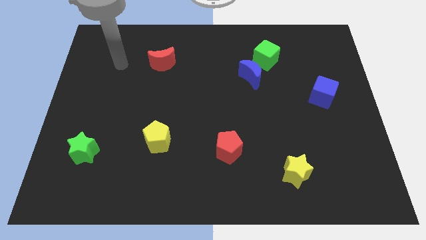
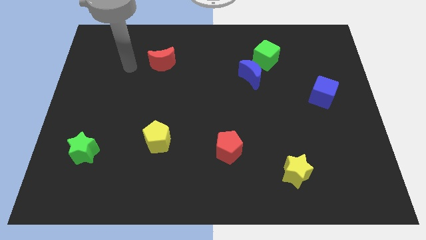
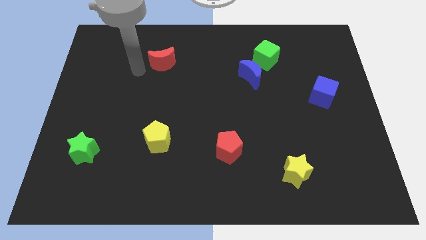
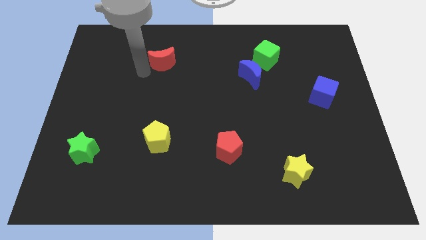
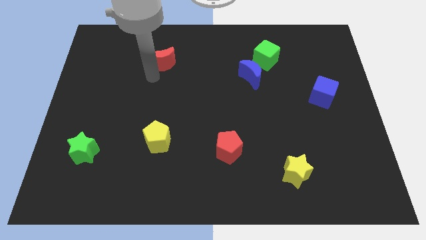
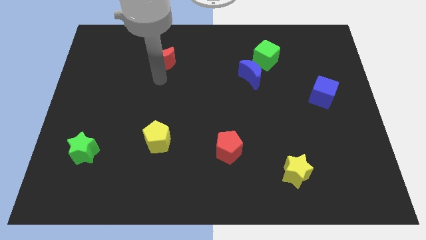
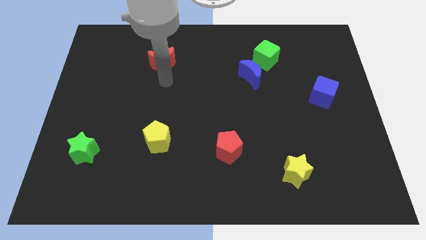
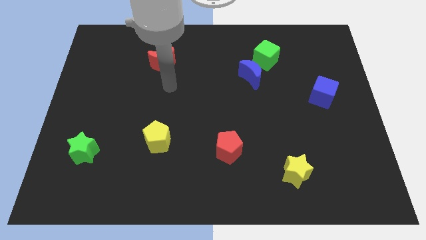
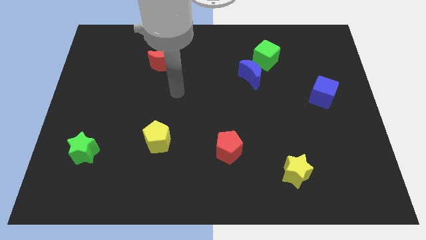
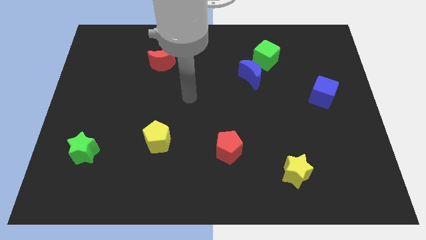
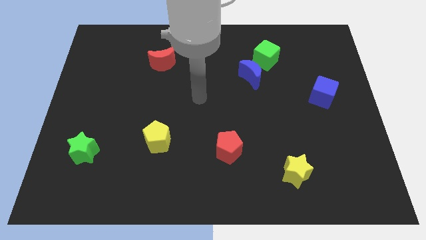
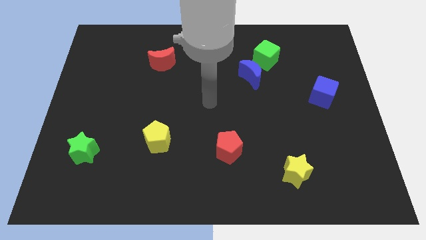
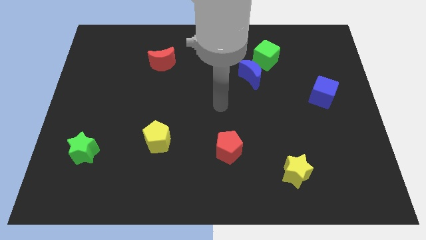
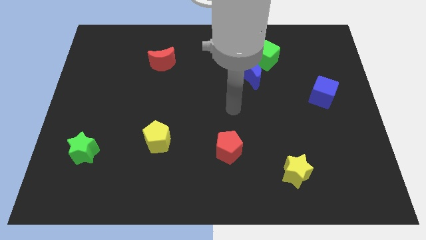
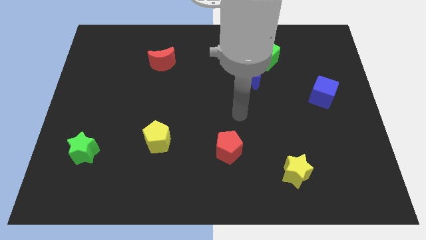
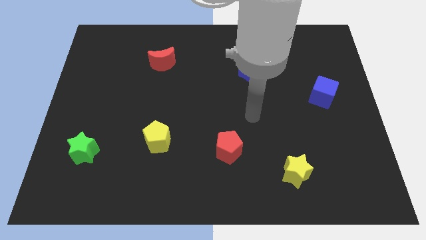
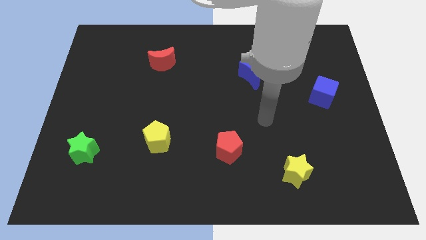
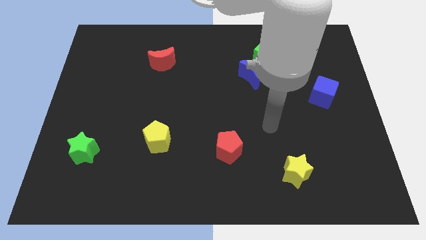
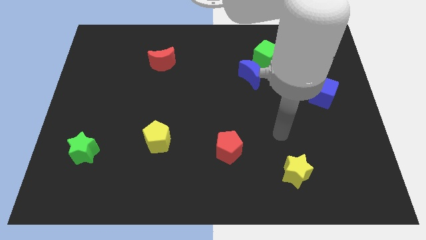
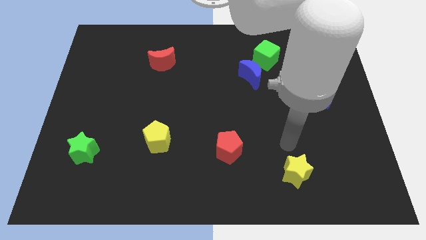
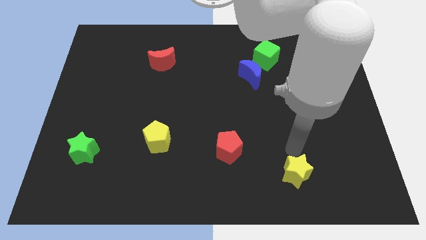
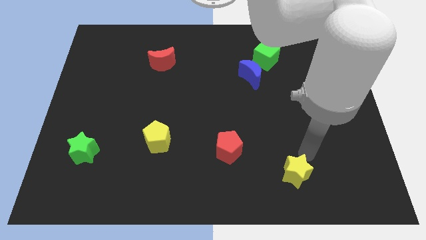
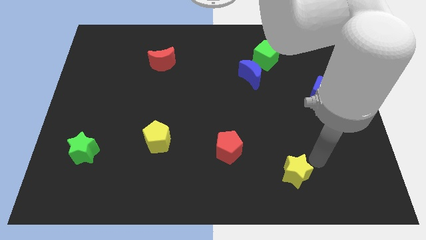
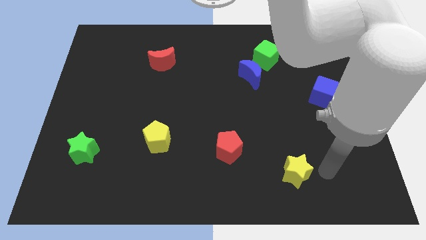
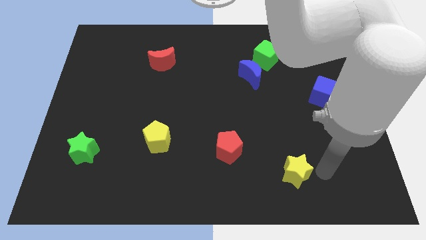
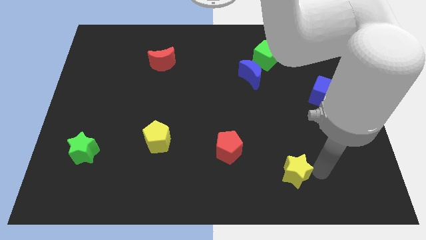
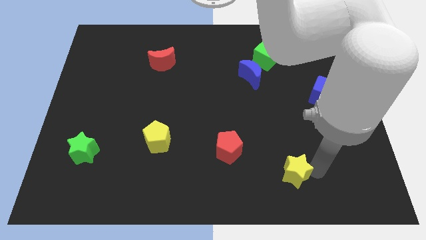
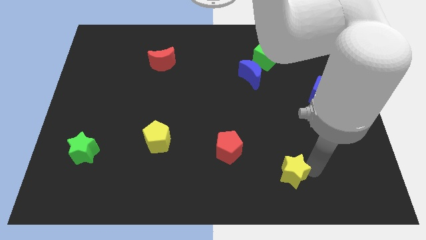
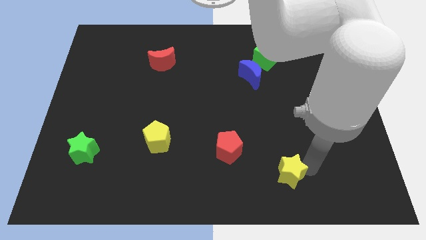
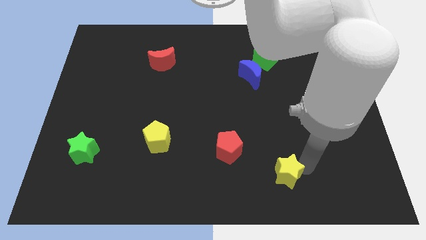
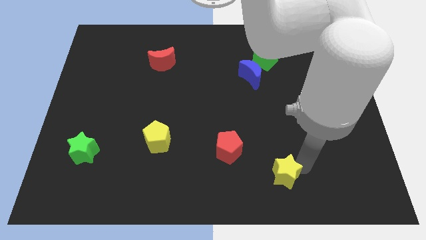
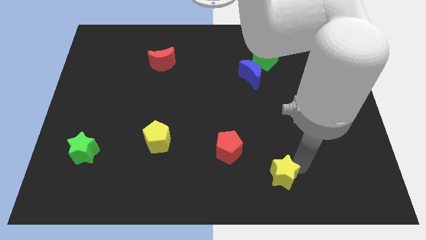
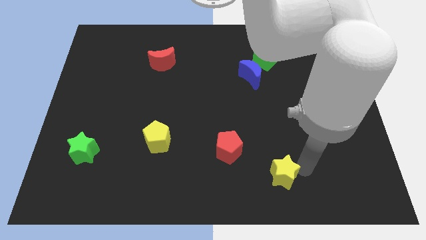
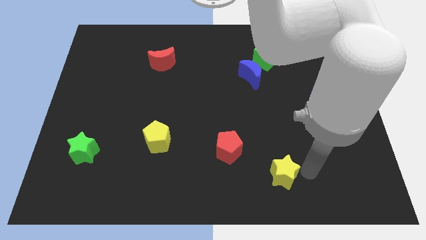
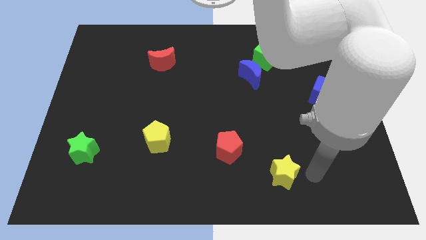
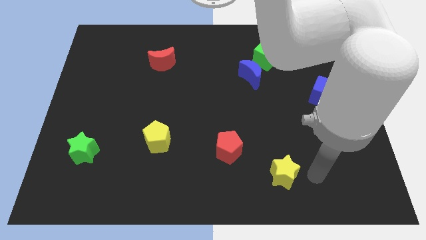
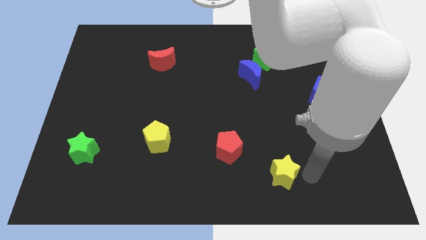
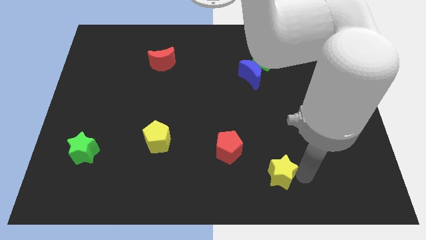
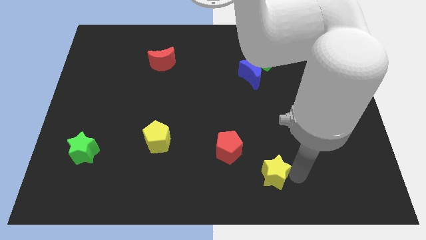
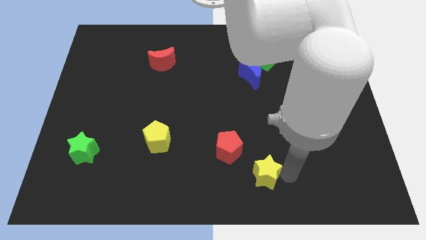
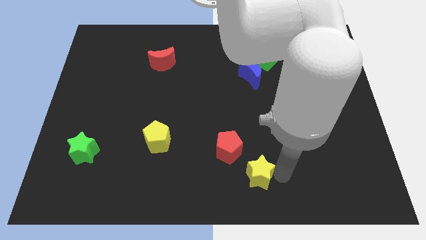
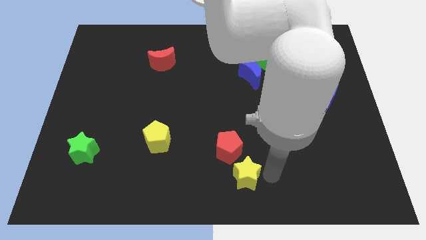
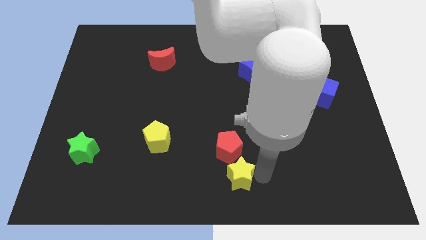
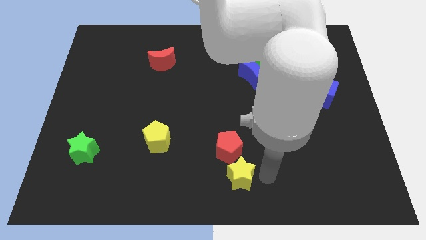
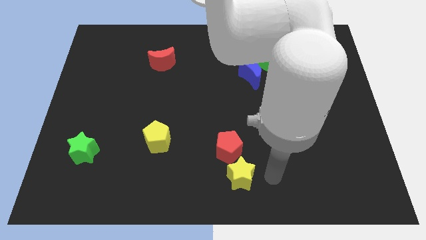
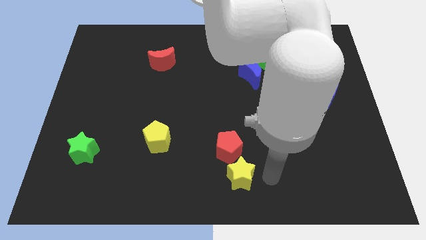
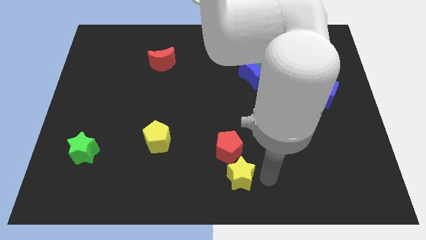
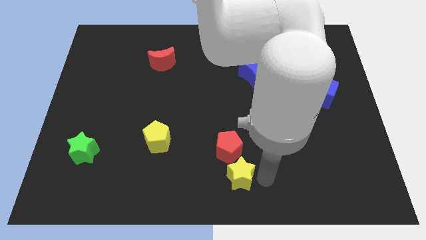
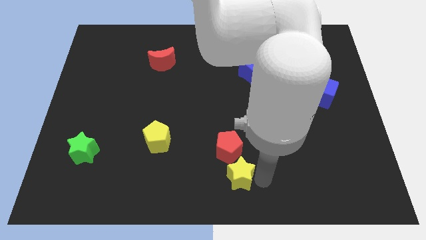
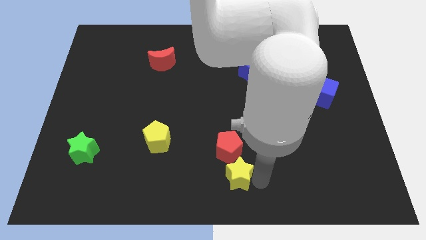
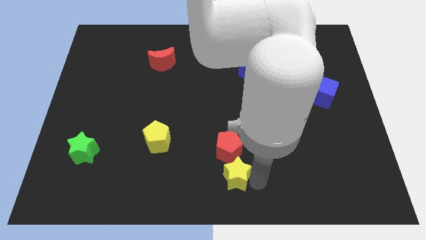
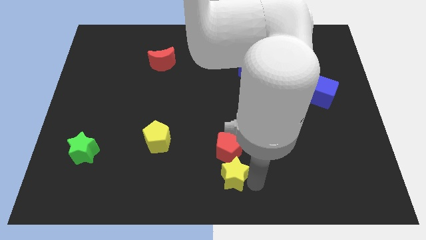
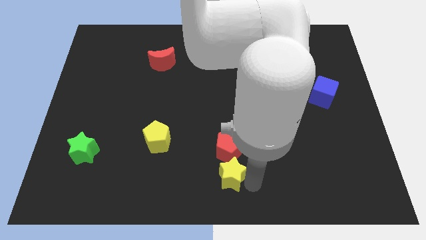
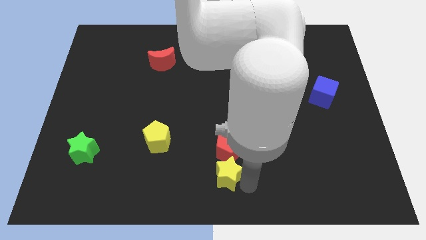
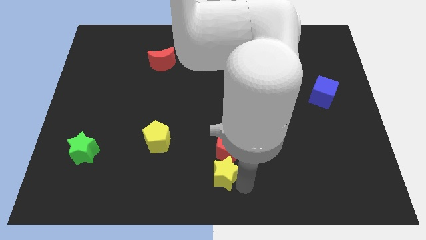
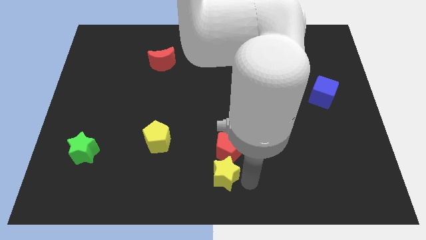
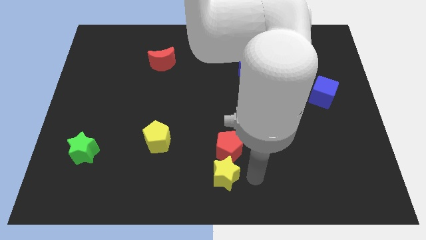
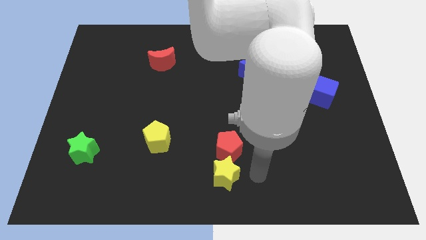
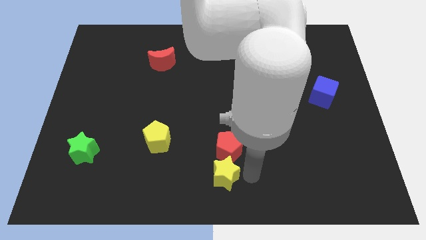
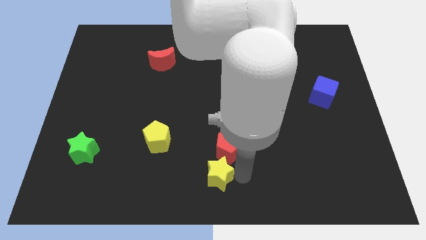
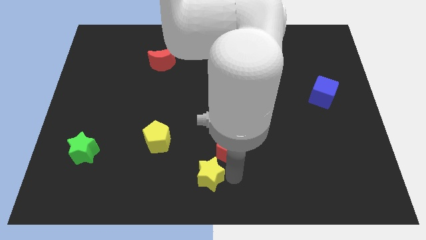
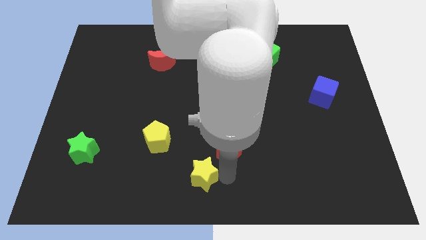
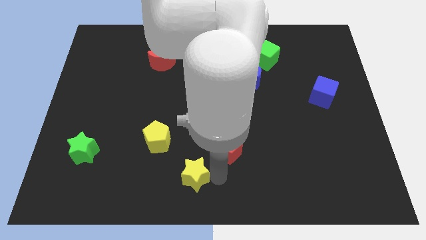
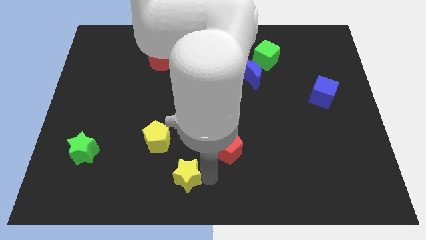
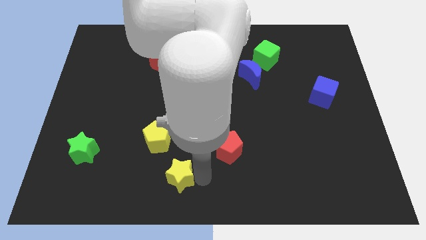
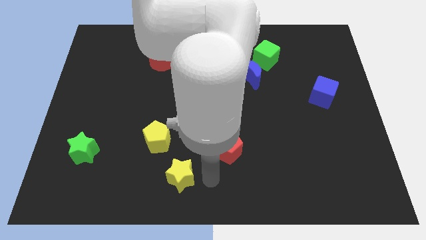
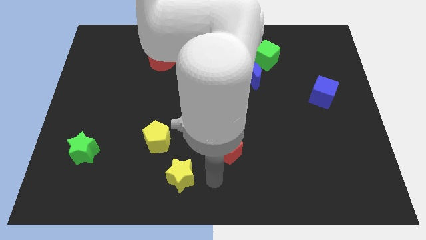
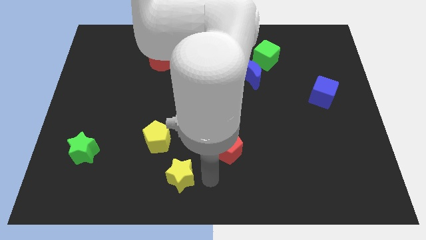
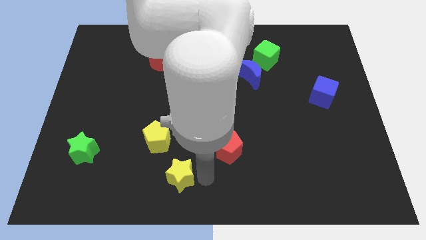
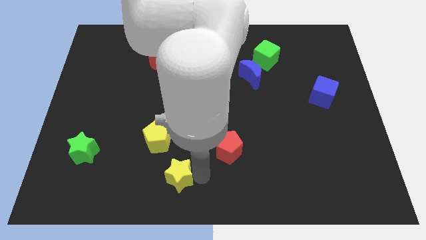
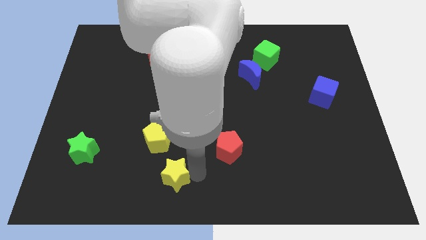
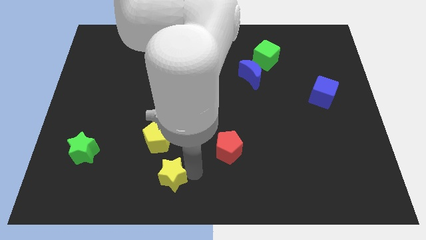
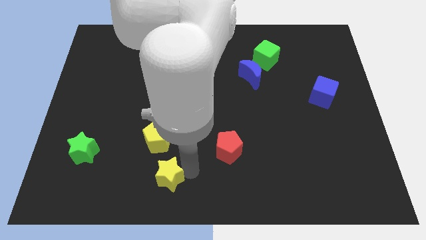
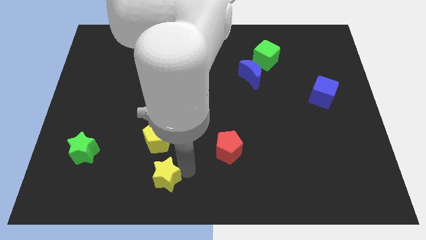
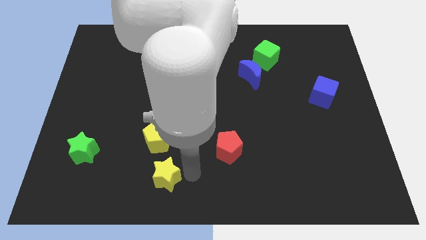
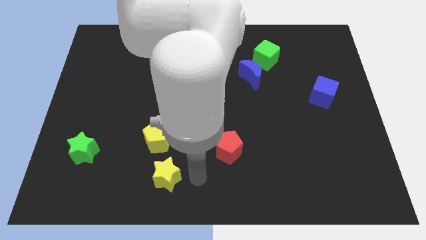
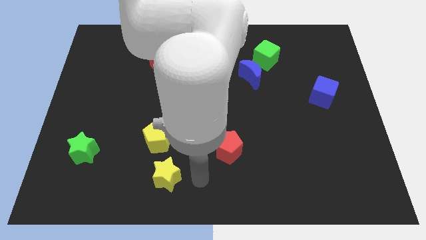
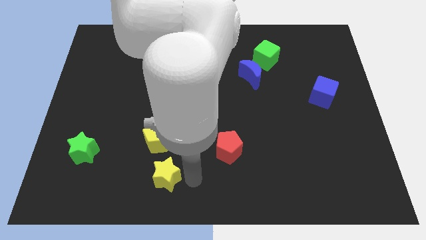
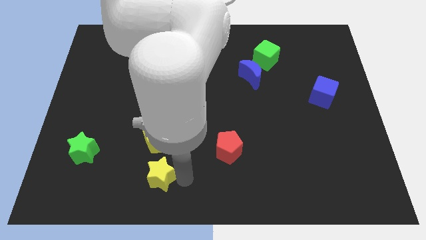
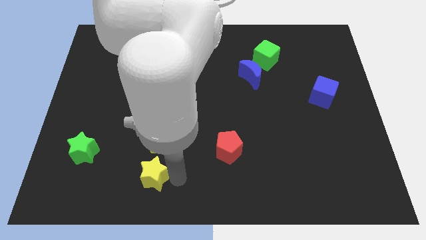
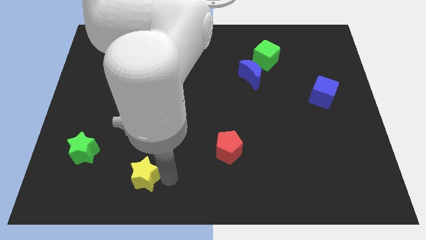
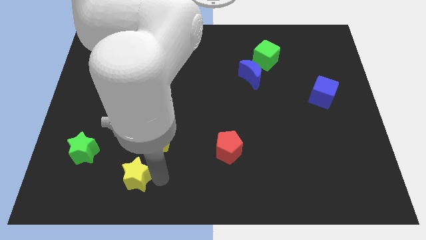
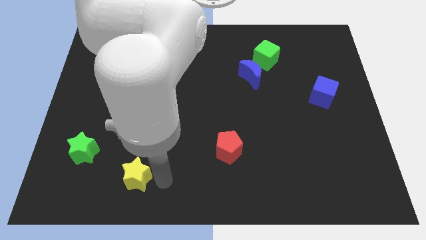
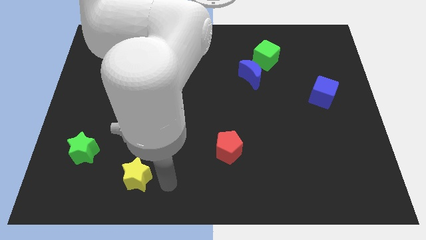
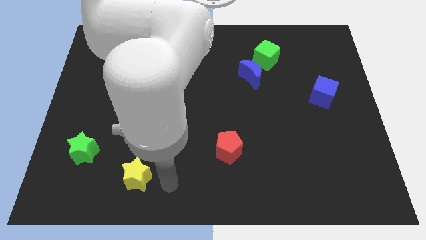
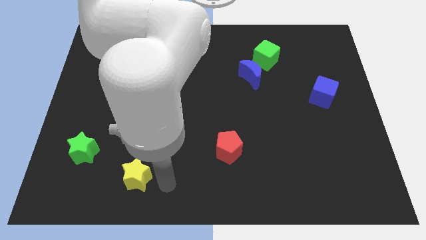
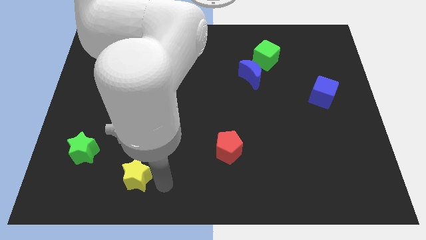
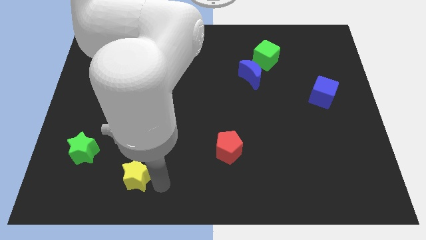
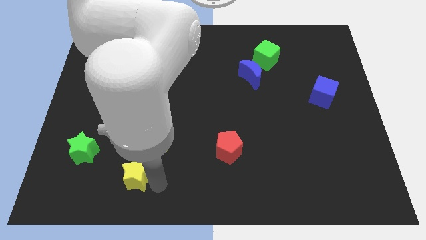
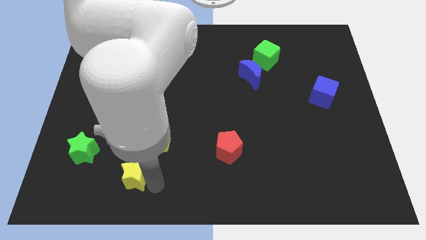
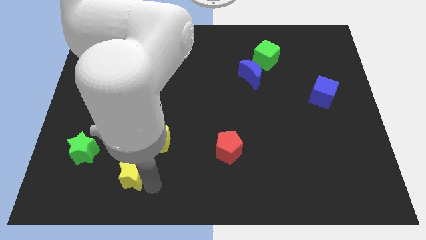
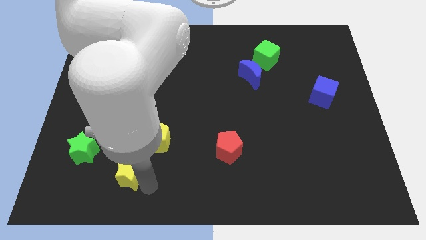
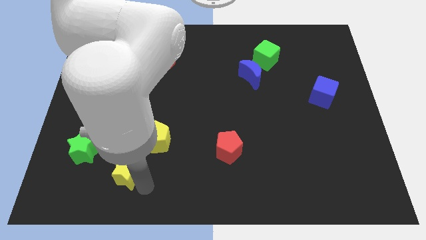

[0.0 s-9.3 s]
put the yellow star diagonally down and to the right of the green star
